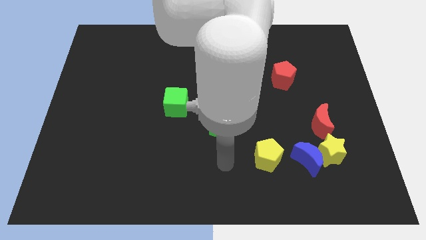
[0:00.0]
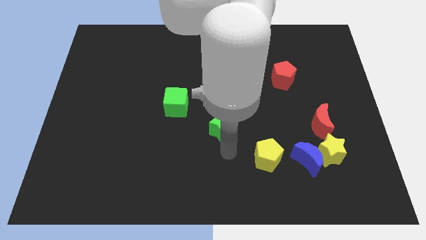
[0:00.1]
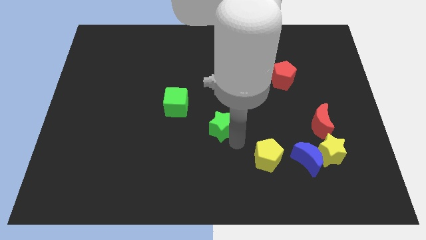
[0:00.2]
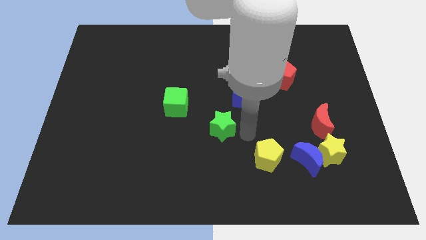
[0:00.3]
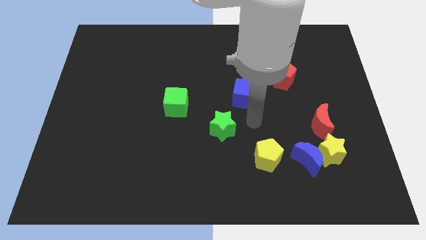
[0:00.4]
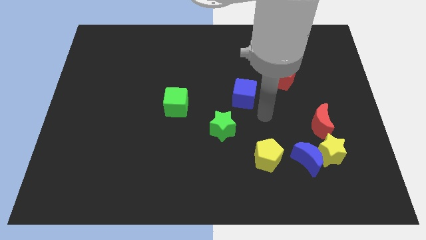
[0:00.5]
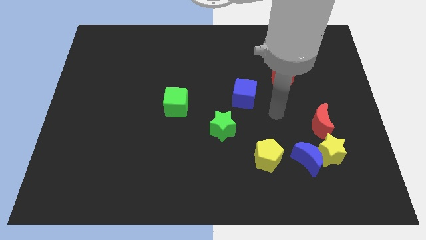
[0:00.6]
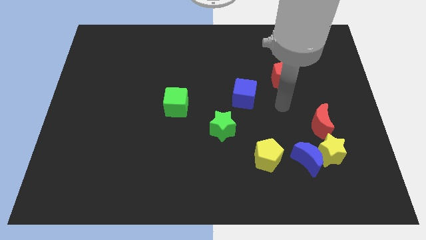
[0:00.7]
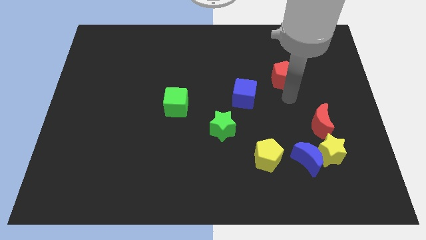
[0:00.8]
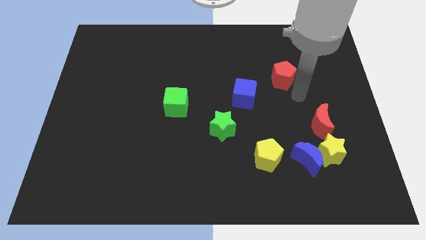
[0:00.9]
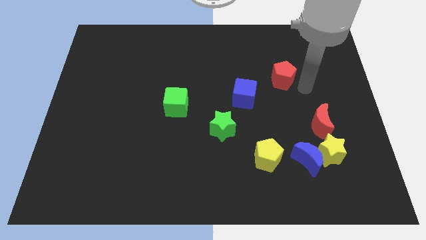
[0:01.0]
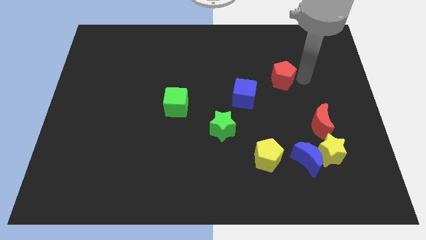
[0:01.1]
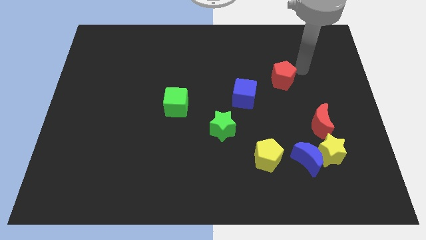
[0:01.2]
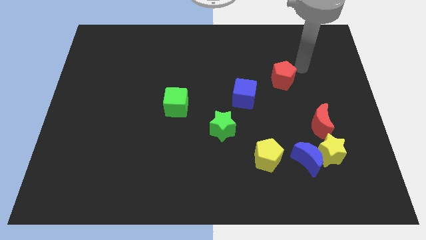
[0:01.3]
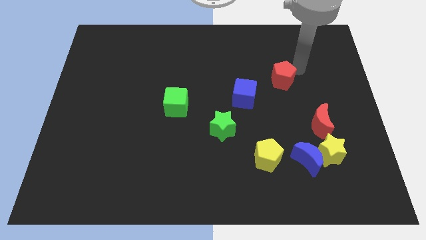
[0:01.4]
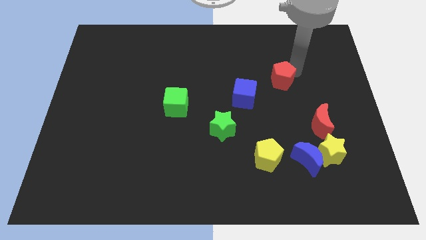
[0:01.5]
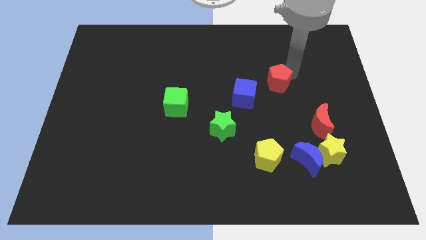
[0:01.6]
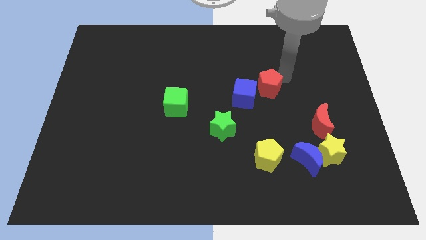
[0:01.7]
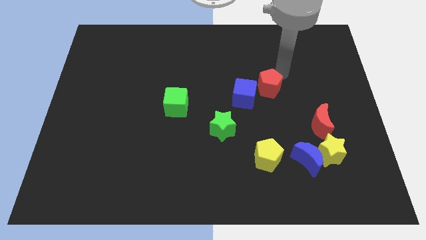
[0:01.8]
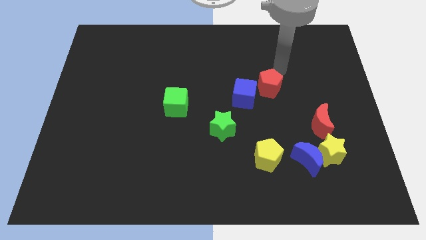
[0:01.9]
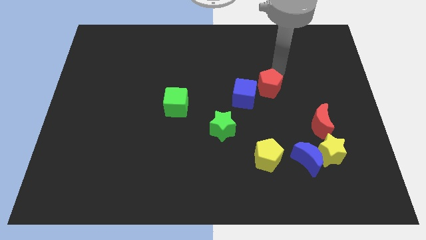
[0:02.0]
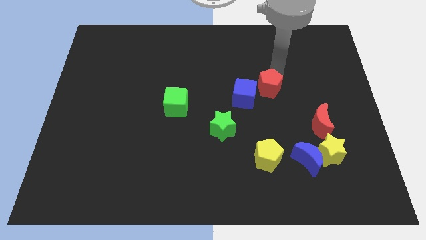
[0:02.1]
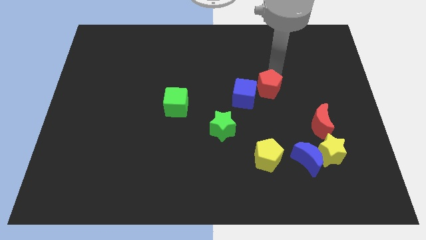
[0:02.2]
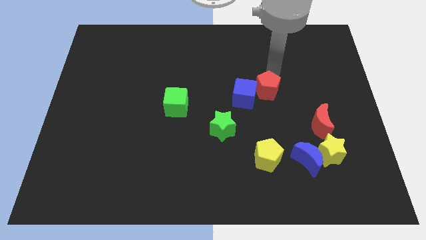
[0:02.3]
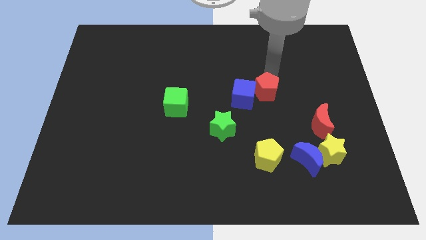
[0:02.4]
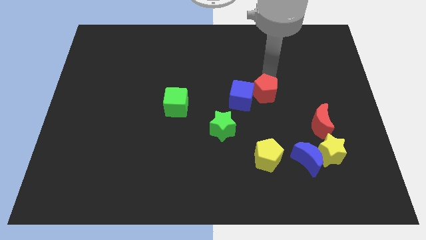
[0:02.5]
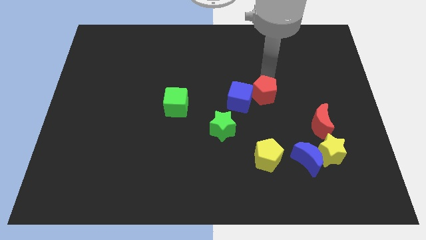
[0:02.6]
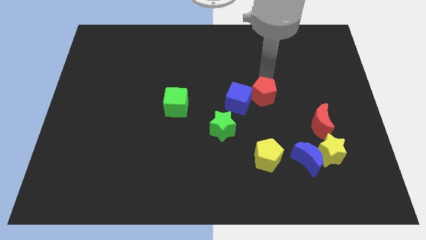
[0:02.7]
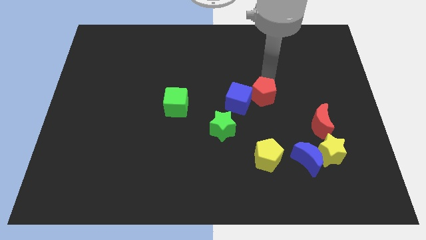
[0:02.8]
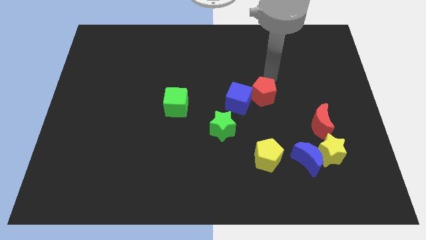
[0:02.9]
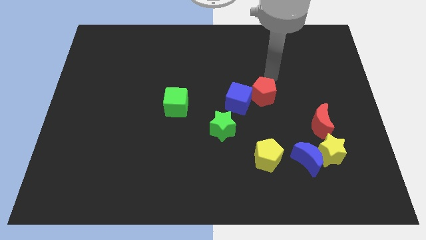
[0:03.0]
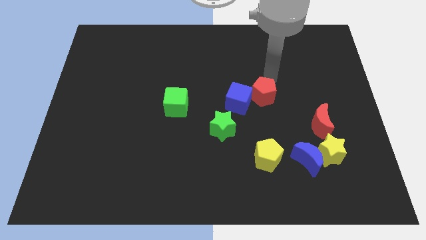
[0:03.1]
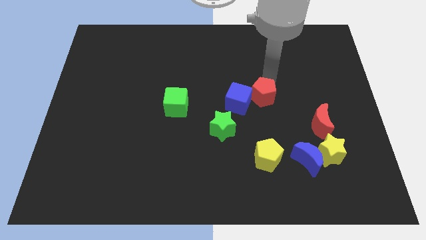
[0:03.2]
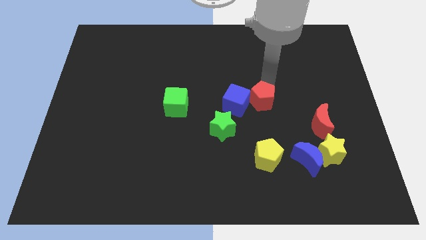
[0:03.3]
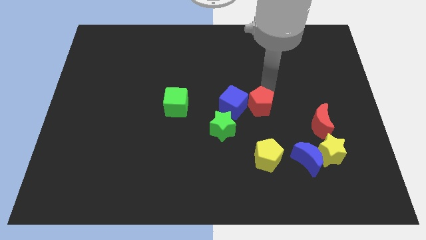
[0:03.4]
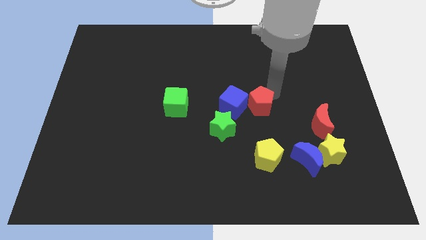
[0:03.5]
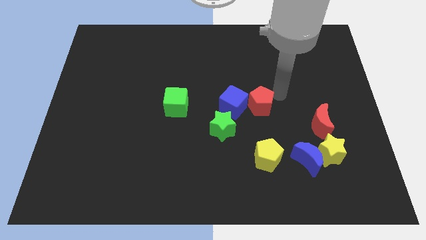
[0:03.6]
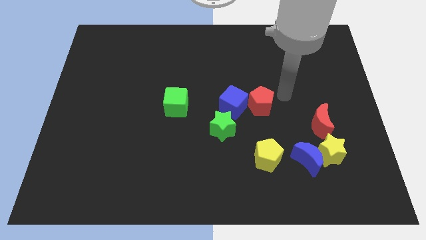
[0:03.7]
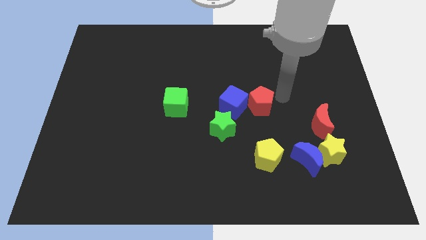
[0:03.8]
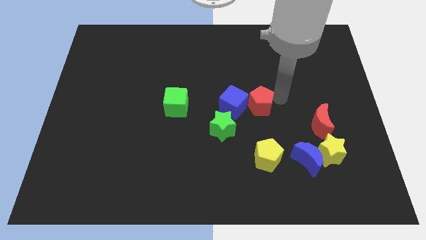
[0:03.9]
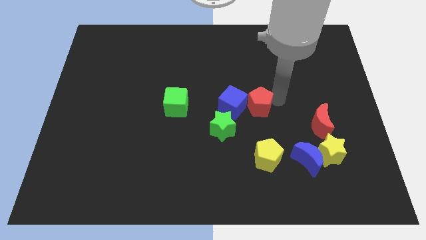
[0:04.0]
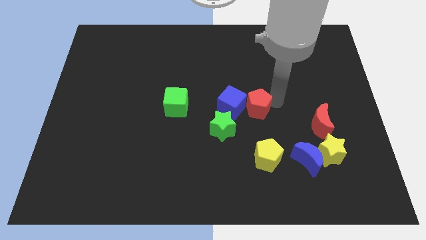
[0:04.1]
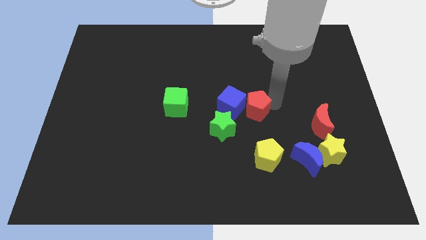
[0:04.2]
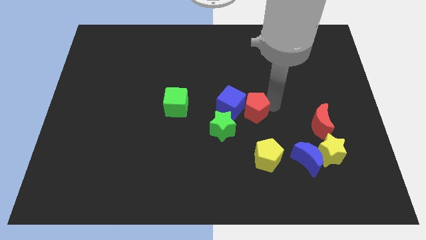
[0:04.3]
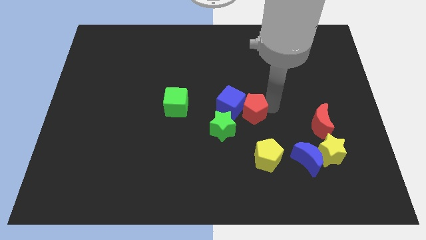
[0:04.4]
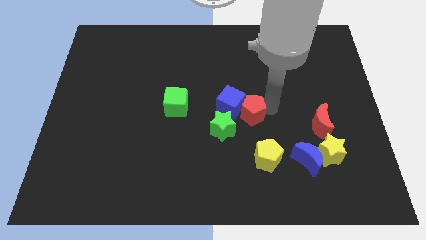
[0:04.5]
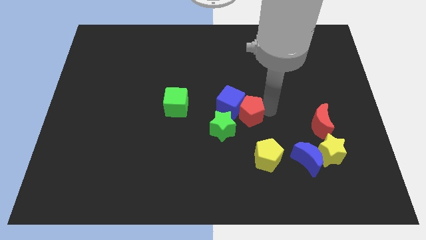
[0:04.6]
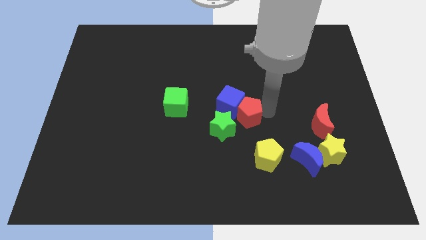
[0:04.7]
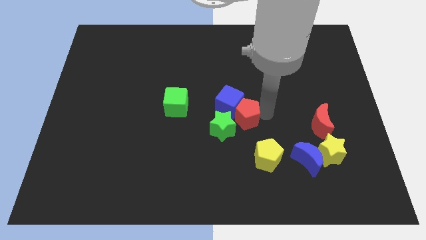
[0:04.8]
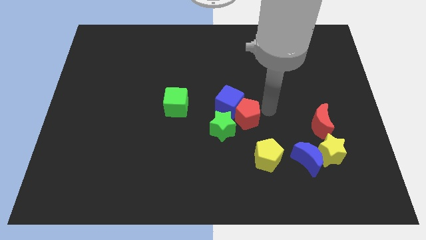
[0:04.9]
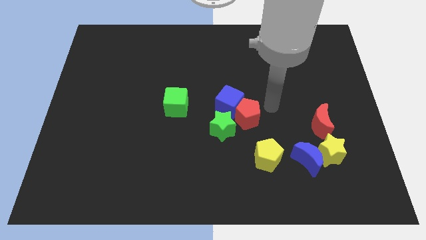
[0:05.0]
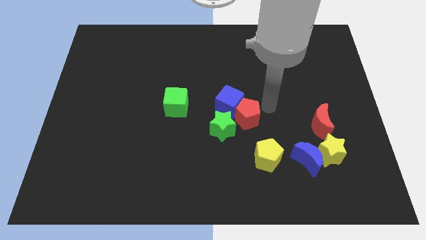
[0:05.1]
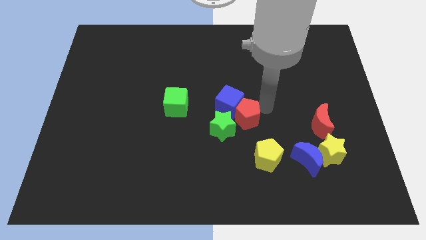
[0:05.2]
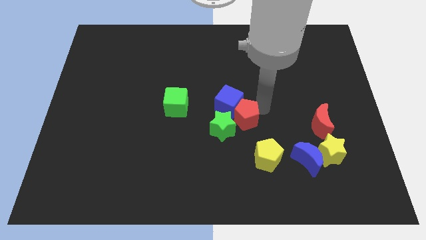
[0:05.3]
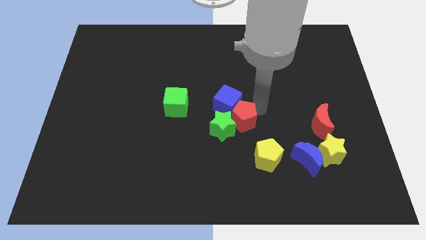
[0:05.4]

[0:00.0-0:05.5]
move the red pentagon next to the green star

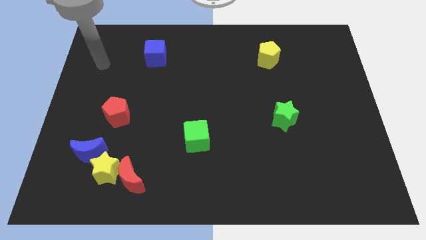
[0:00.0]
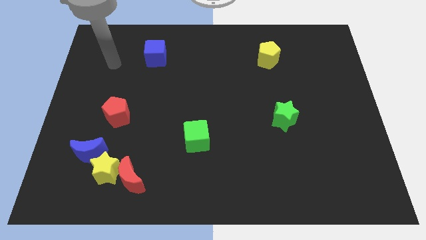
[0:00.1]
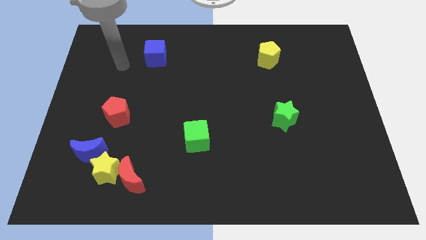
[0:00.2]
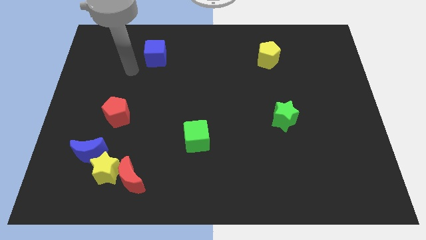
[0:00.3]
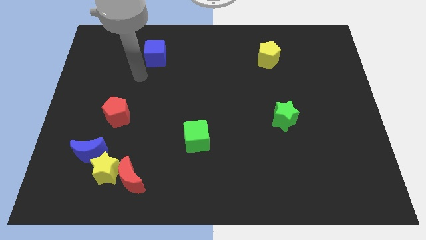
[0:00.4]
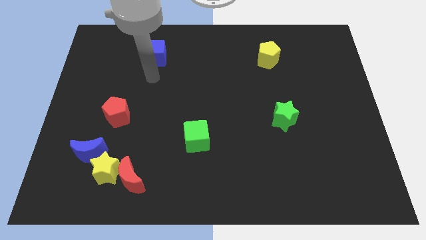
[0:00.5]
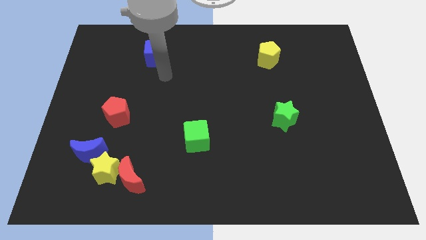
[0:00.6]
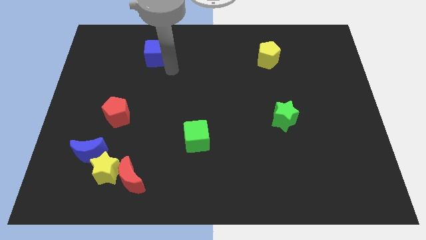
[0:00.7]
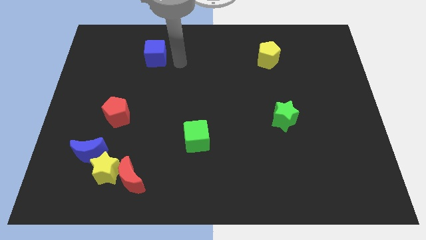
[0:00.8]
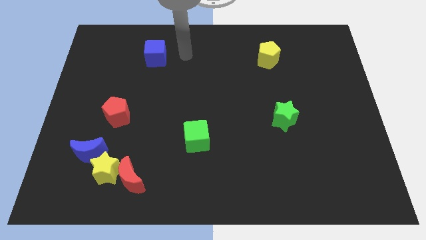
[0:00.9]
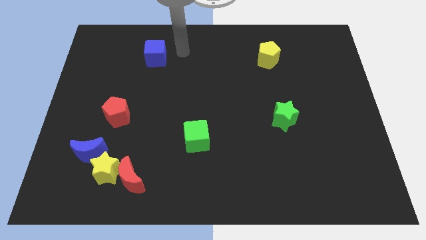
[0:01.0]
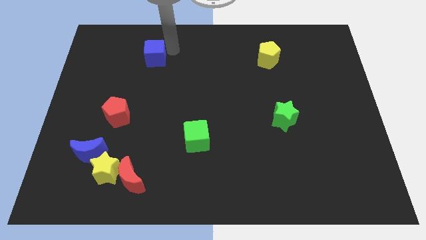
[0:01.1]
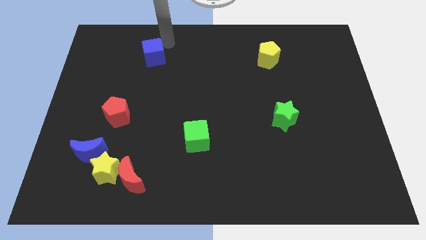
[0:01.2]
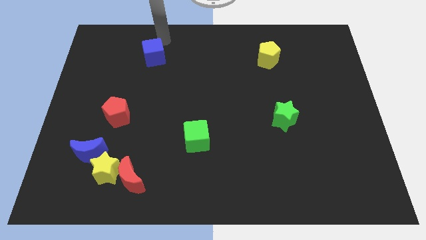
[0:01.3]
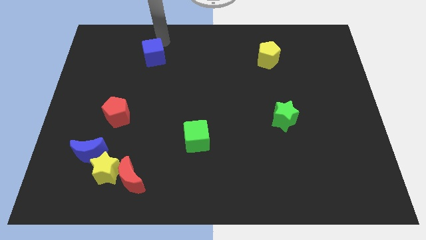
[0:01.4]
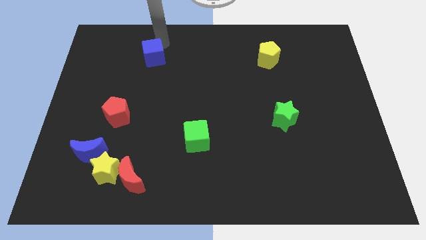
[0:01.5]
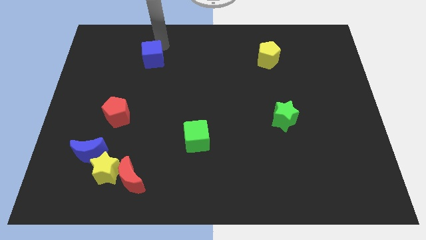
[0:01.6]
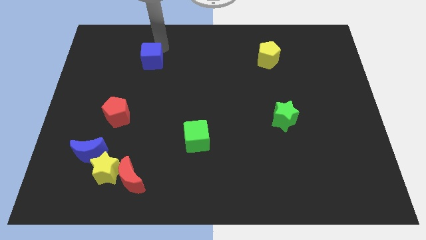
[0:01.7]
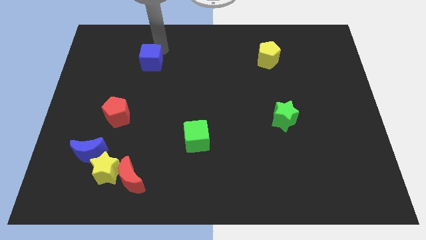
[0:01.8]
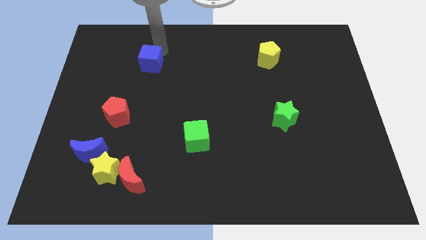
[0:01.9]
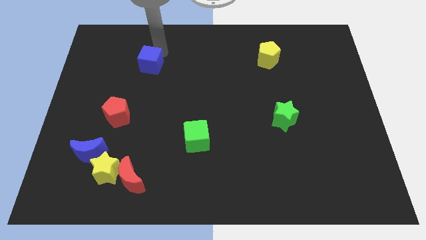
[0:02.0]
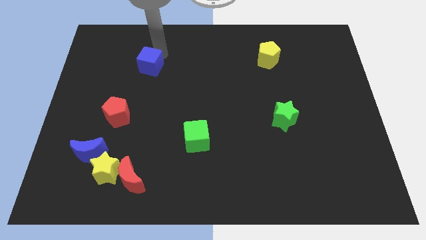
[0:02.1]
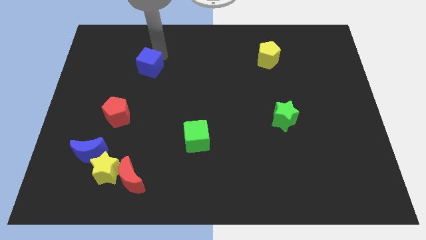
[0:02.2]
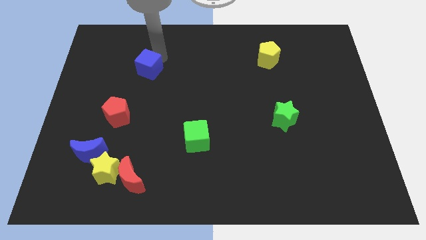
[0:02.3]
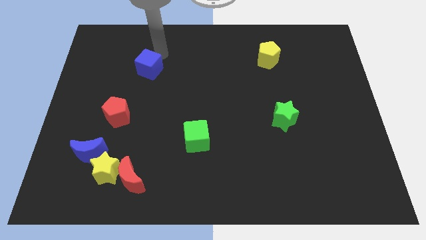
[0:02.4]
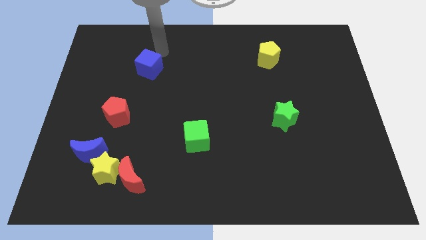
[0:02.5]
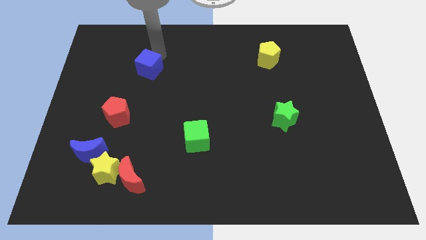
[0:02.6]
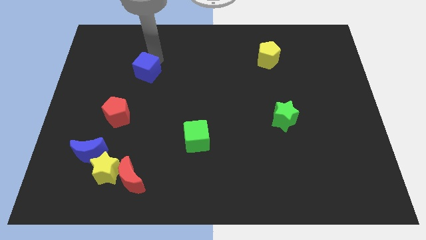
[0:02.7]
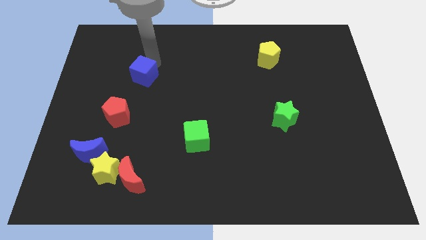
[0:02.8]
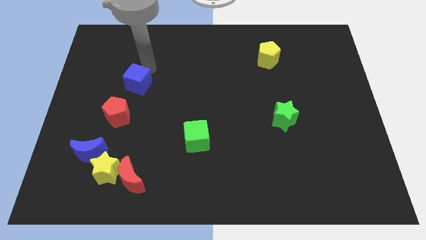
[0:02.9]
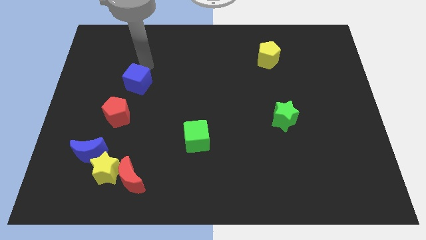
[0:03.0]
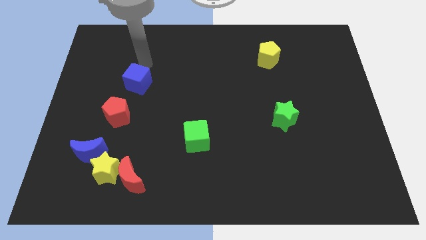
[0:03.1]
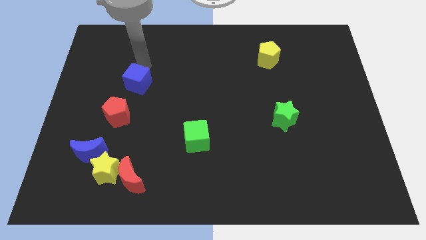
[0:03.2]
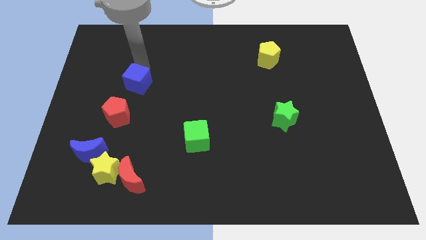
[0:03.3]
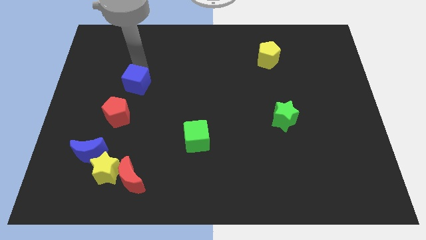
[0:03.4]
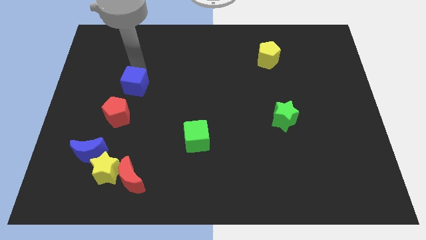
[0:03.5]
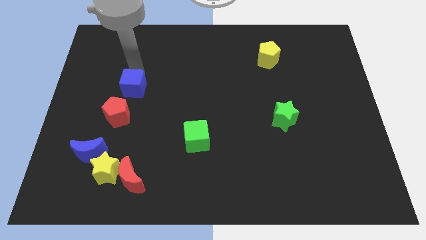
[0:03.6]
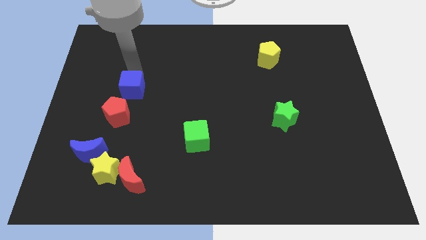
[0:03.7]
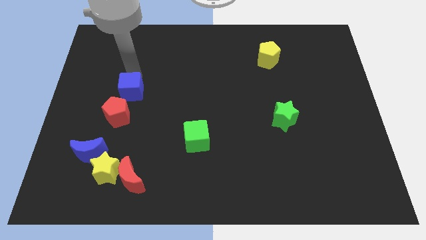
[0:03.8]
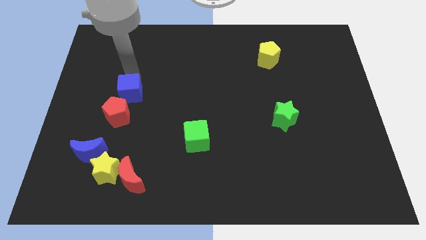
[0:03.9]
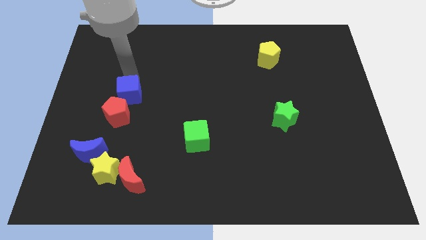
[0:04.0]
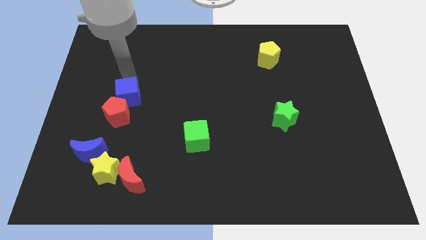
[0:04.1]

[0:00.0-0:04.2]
push the blue cube close to the red pentagon
